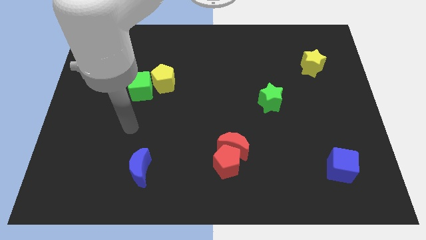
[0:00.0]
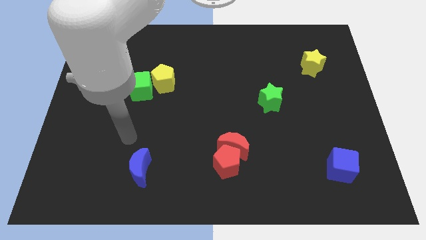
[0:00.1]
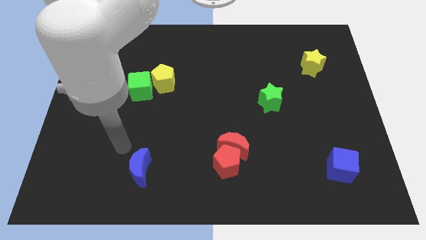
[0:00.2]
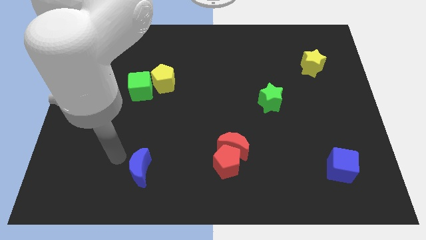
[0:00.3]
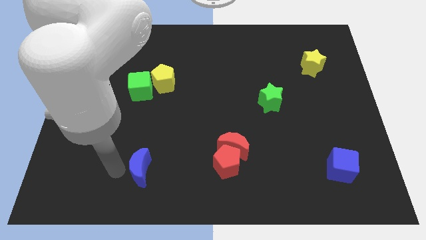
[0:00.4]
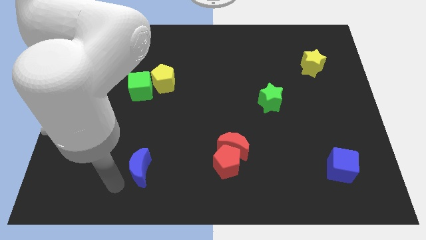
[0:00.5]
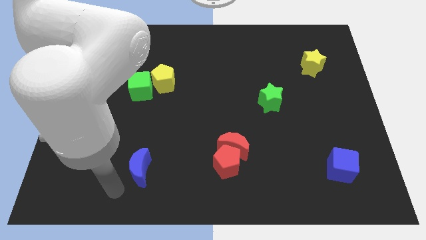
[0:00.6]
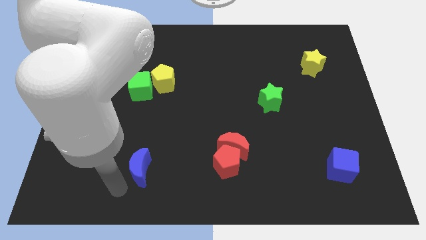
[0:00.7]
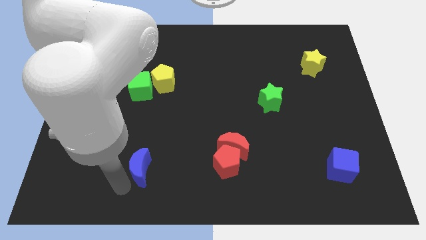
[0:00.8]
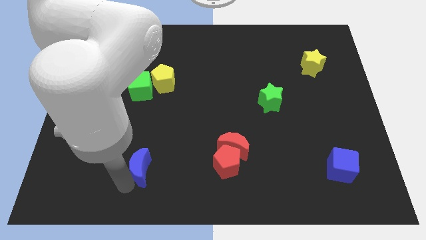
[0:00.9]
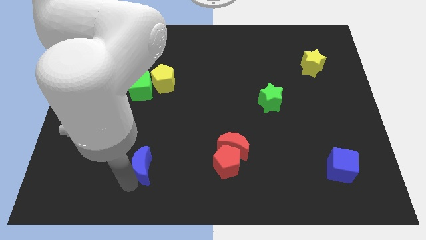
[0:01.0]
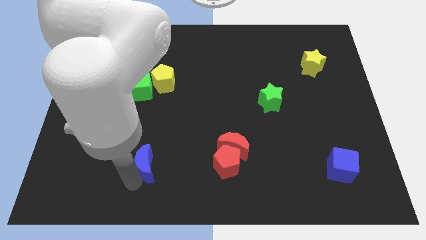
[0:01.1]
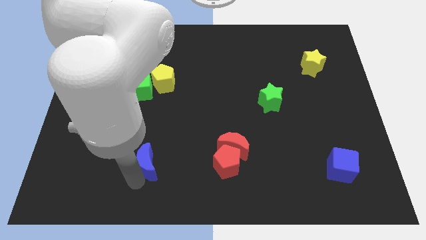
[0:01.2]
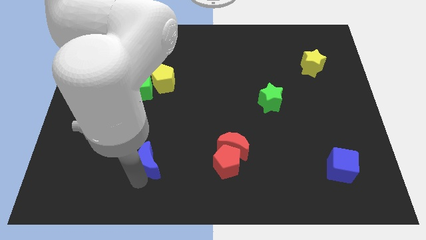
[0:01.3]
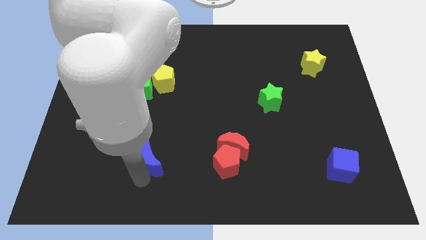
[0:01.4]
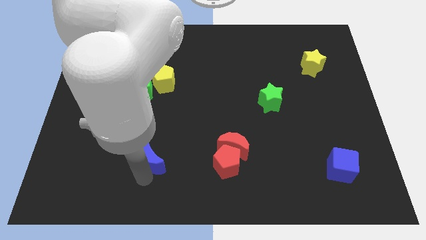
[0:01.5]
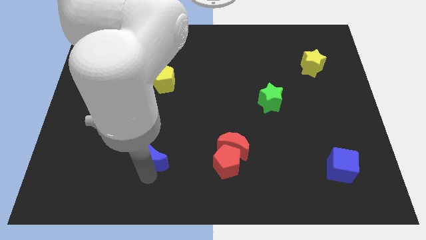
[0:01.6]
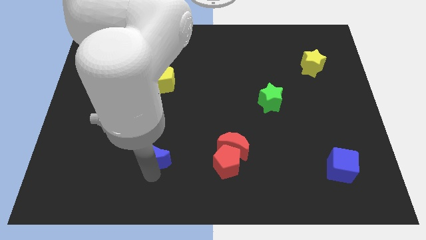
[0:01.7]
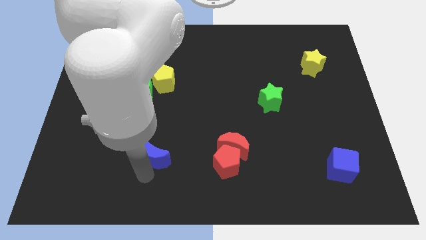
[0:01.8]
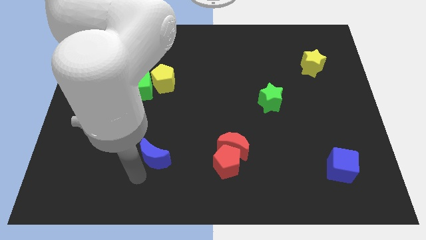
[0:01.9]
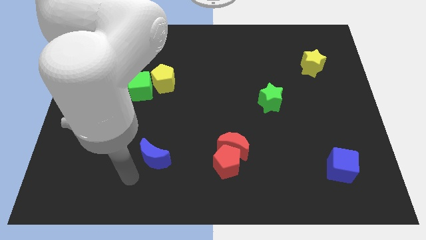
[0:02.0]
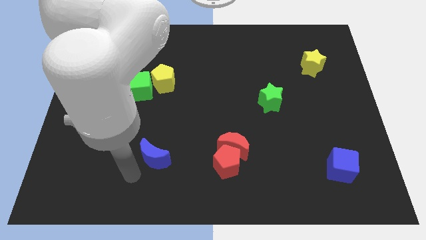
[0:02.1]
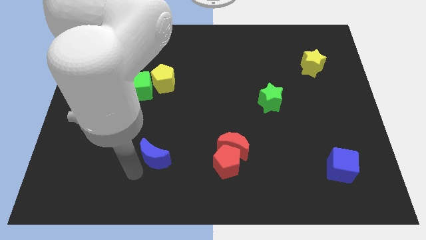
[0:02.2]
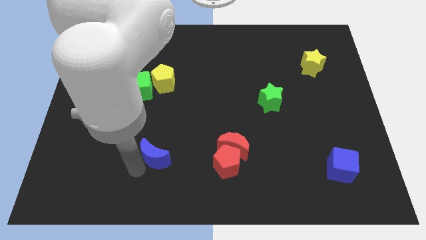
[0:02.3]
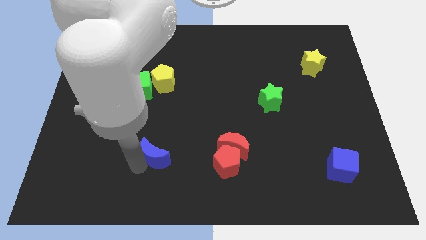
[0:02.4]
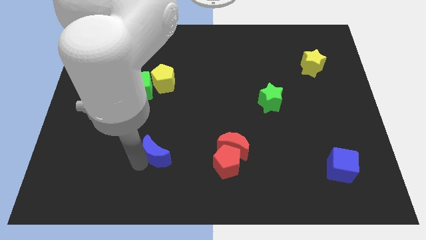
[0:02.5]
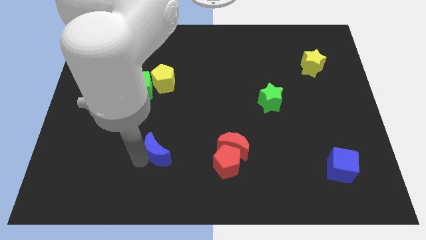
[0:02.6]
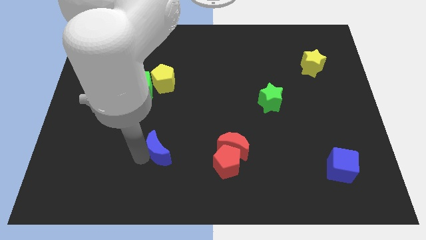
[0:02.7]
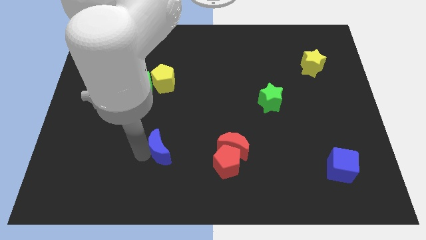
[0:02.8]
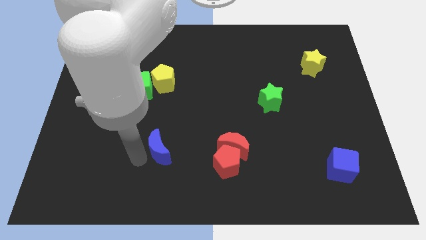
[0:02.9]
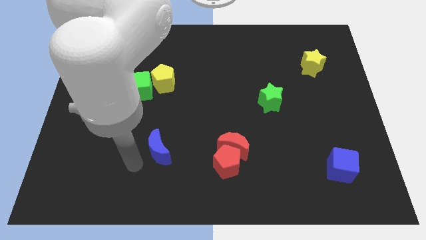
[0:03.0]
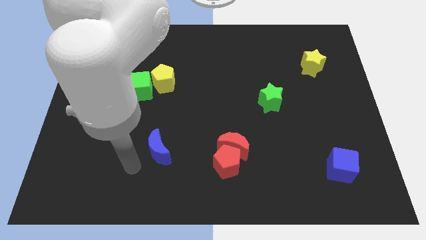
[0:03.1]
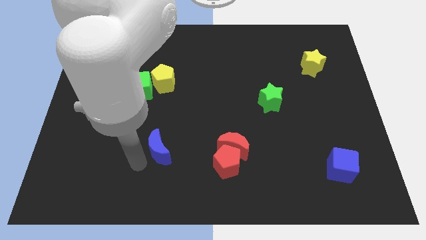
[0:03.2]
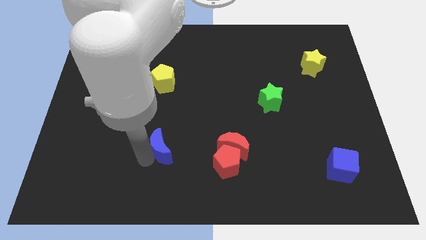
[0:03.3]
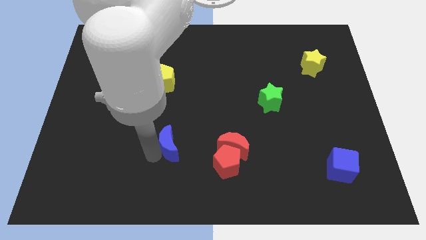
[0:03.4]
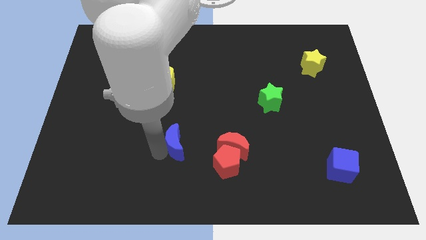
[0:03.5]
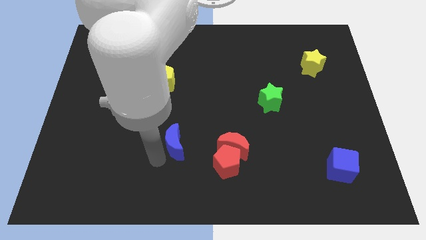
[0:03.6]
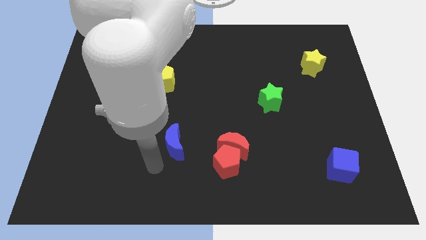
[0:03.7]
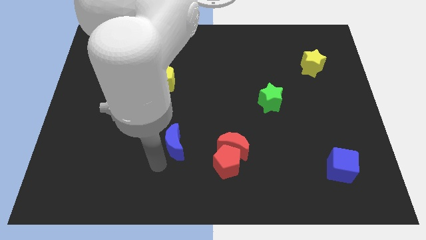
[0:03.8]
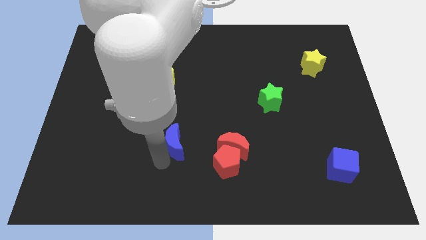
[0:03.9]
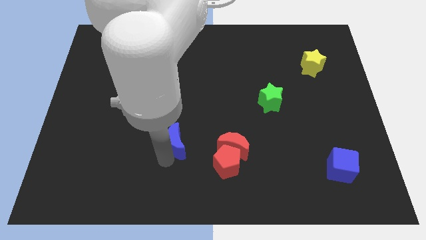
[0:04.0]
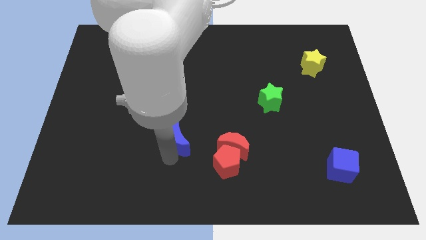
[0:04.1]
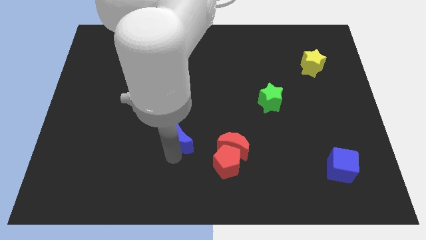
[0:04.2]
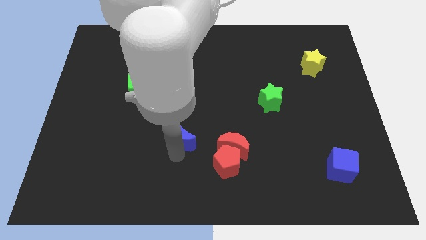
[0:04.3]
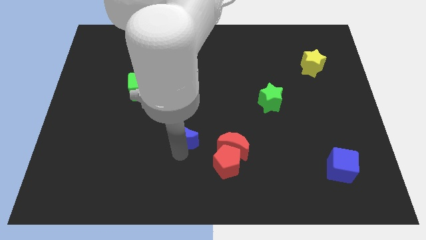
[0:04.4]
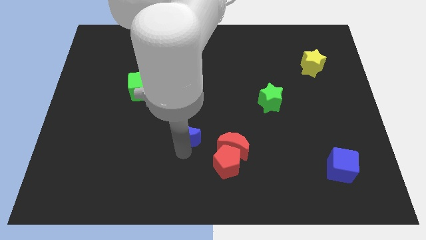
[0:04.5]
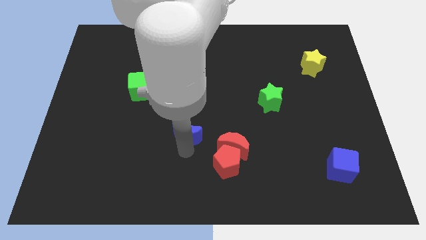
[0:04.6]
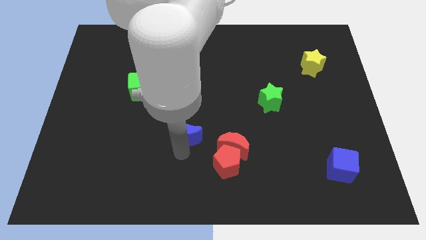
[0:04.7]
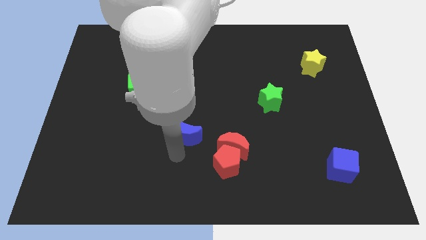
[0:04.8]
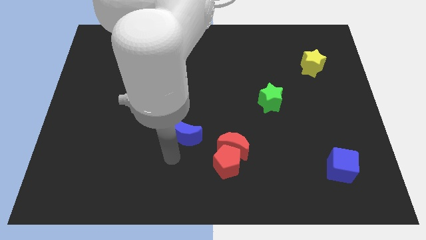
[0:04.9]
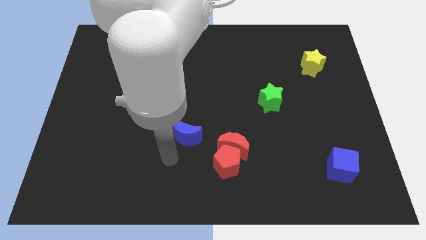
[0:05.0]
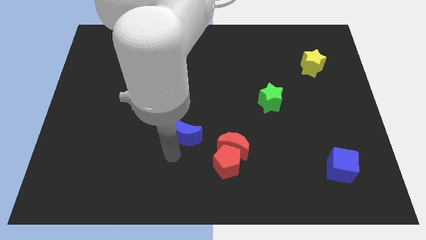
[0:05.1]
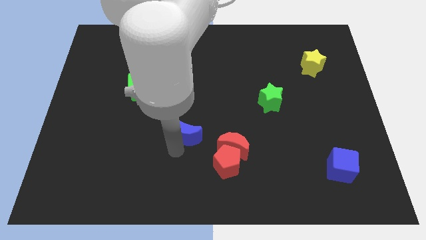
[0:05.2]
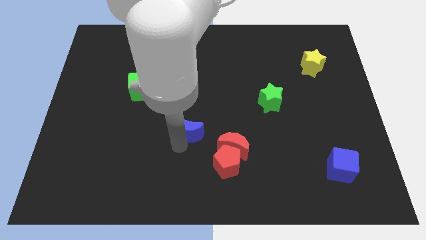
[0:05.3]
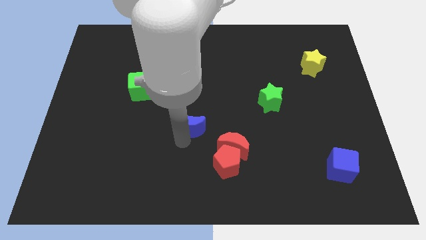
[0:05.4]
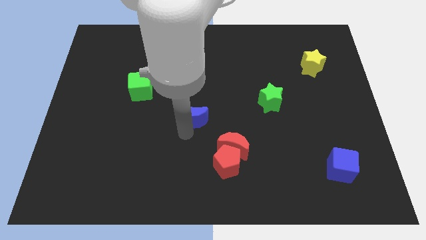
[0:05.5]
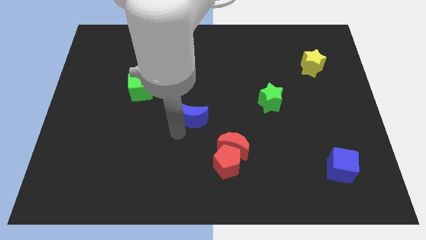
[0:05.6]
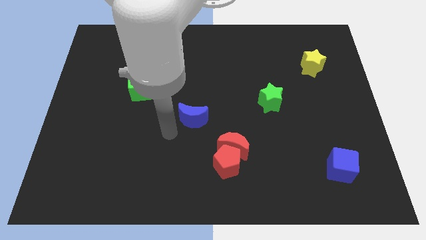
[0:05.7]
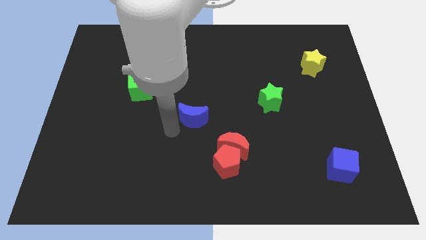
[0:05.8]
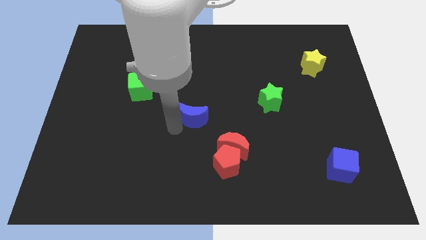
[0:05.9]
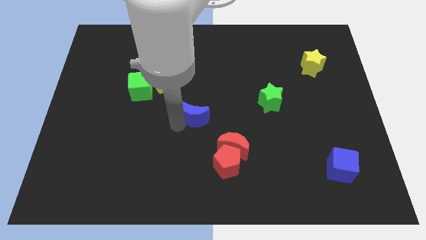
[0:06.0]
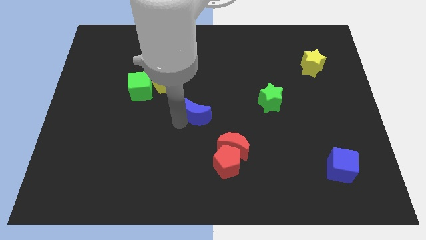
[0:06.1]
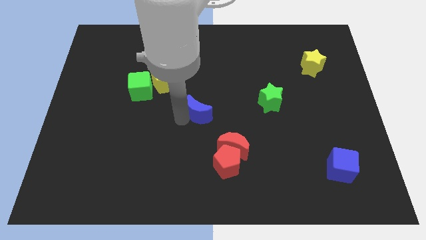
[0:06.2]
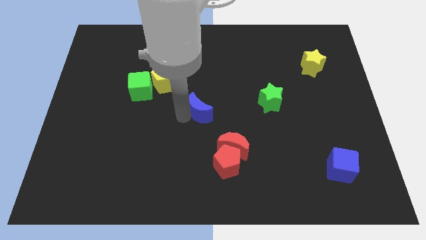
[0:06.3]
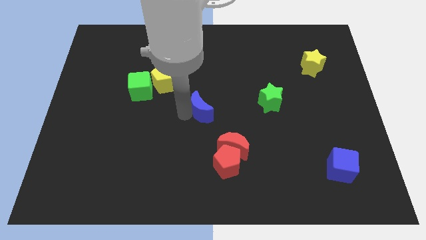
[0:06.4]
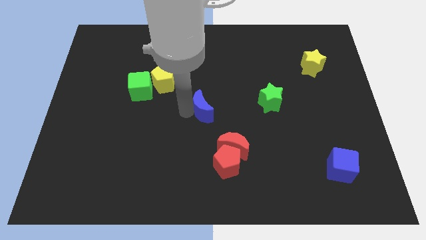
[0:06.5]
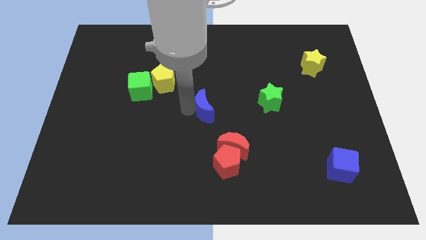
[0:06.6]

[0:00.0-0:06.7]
push the blue moon just left of the green star
